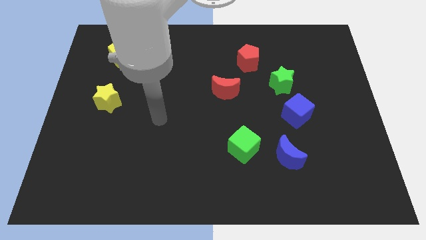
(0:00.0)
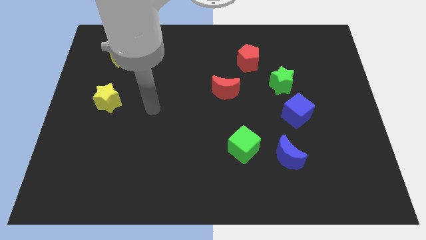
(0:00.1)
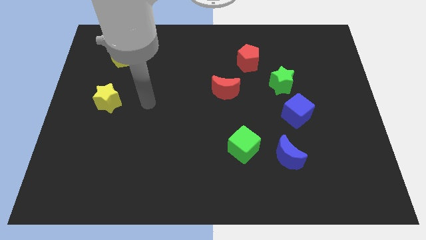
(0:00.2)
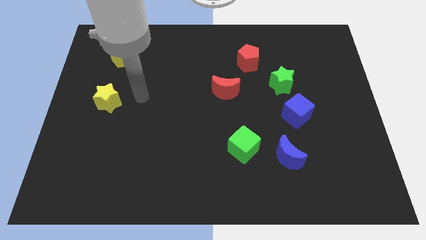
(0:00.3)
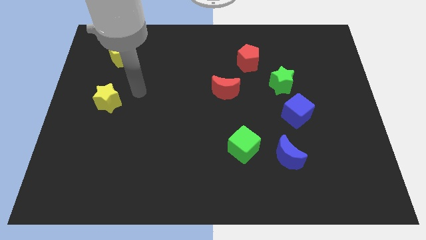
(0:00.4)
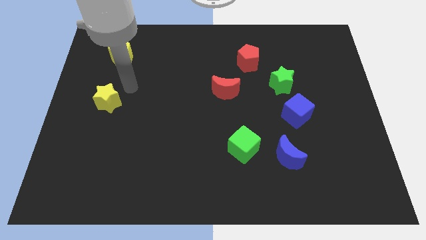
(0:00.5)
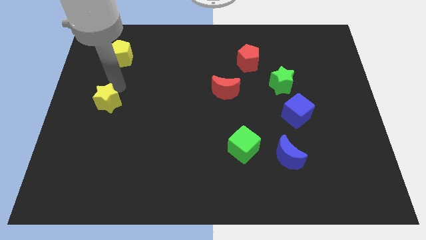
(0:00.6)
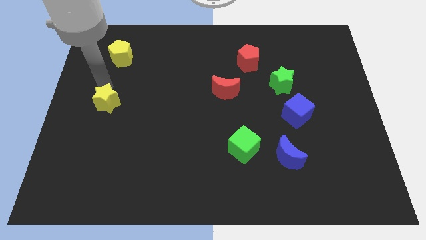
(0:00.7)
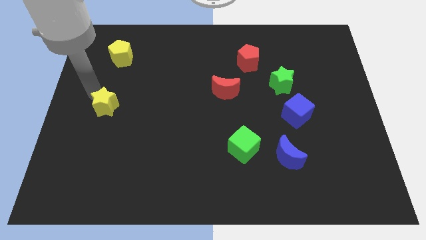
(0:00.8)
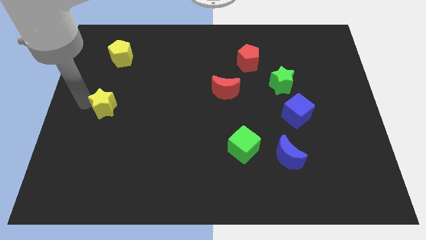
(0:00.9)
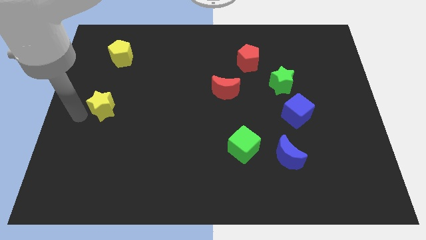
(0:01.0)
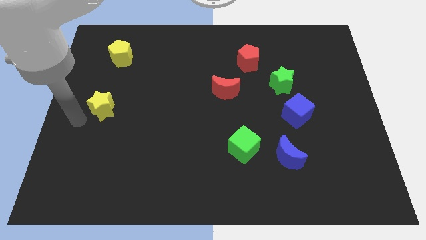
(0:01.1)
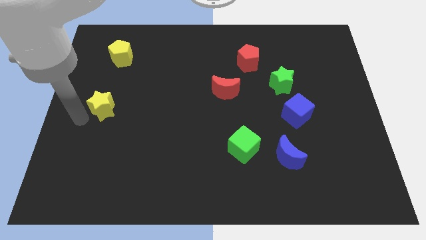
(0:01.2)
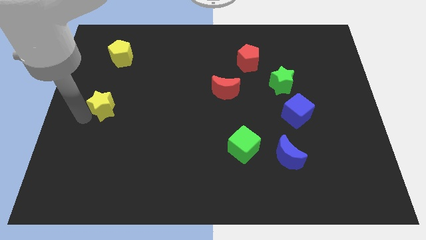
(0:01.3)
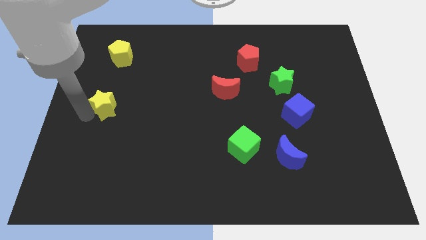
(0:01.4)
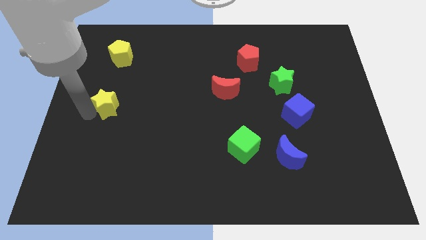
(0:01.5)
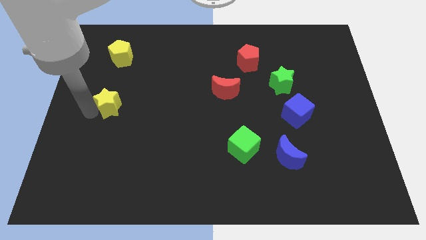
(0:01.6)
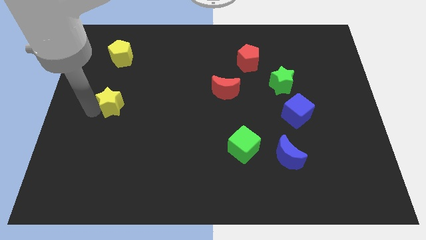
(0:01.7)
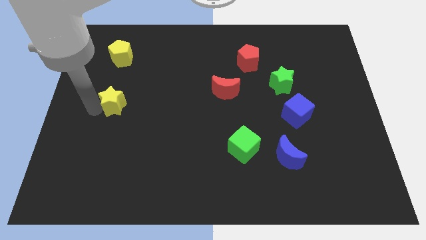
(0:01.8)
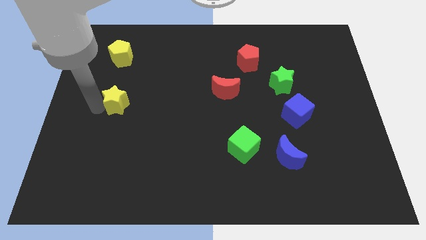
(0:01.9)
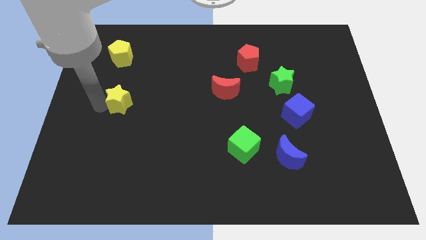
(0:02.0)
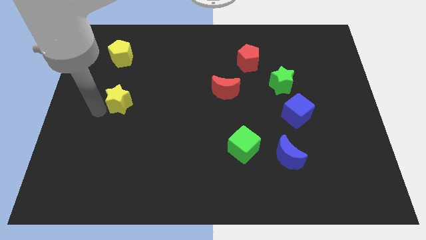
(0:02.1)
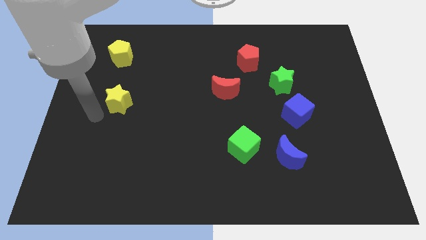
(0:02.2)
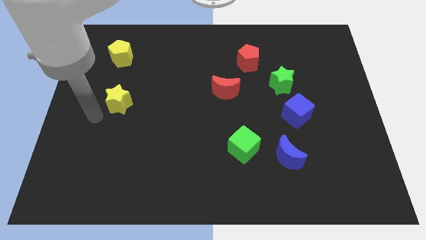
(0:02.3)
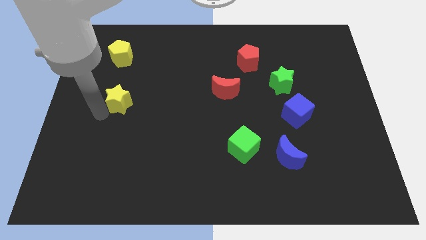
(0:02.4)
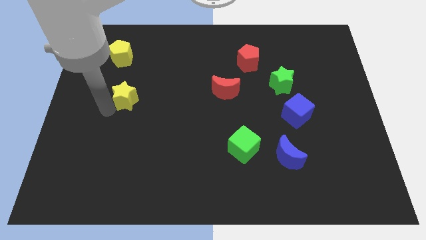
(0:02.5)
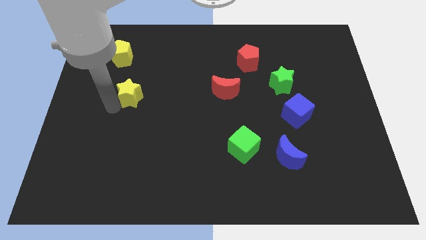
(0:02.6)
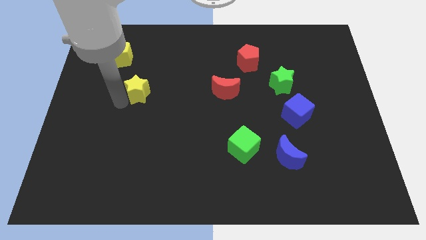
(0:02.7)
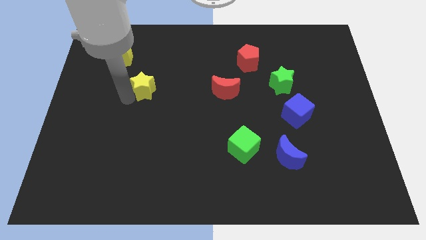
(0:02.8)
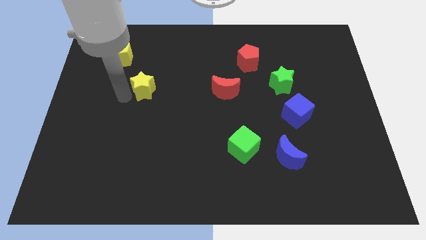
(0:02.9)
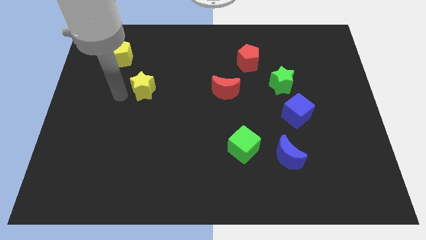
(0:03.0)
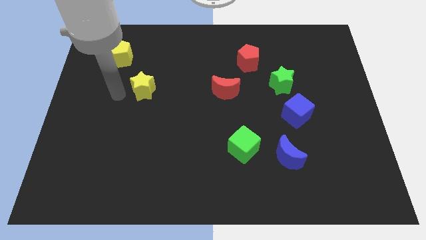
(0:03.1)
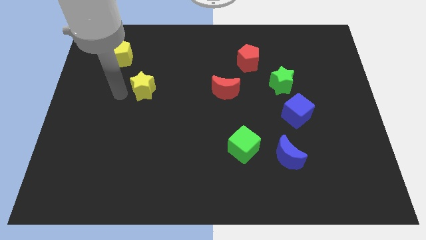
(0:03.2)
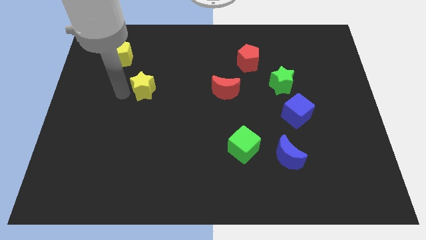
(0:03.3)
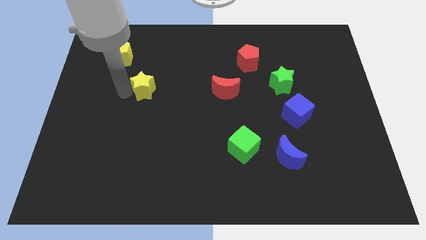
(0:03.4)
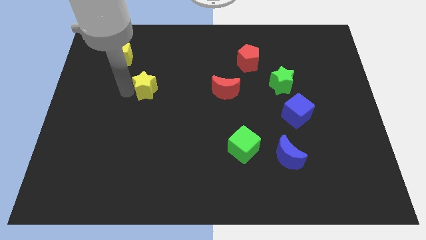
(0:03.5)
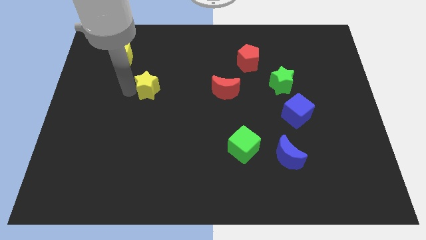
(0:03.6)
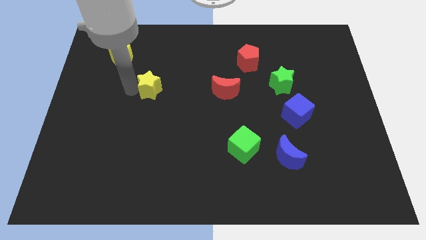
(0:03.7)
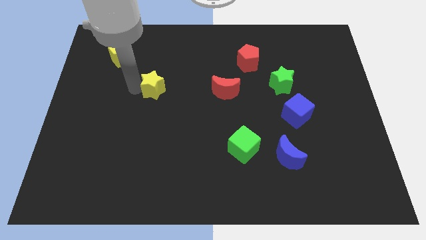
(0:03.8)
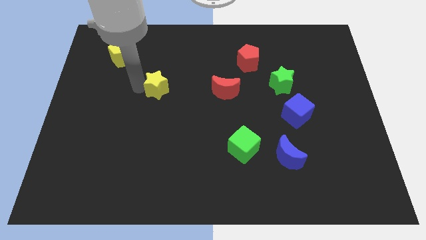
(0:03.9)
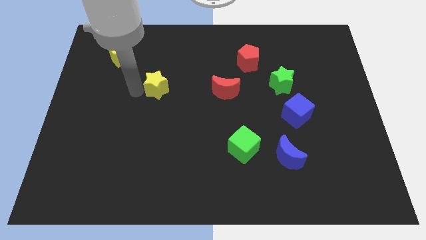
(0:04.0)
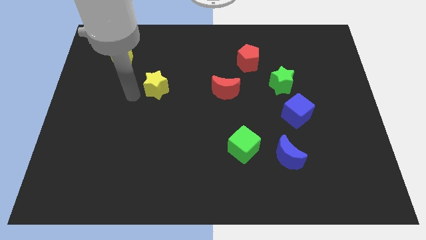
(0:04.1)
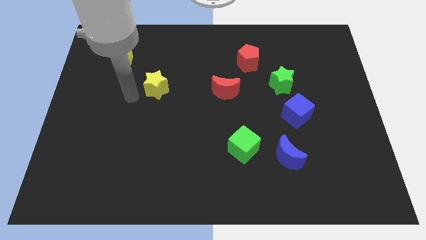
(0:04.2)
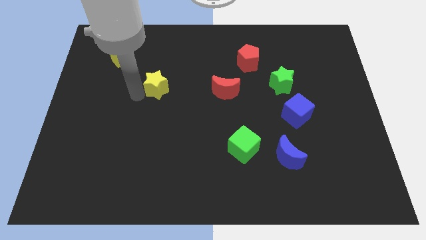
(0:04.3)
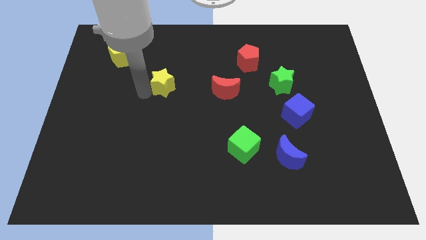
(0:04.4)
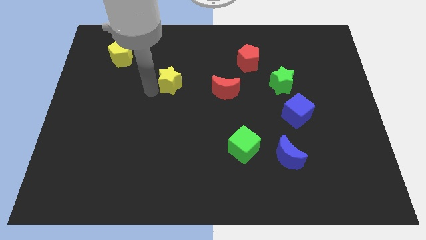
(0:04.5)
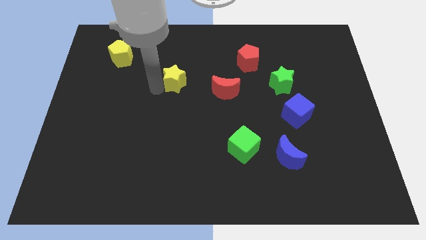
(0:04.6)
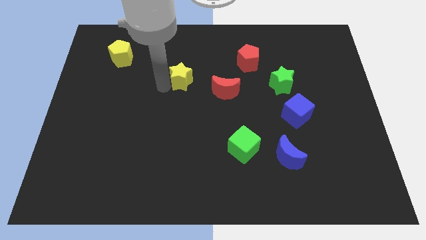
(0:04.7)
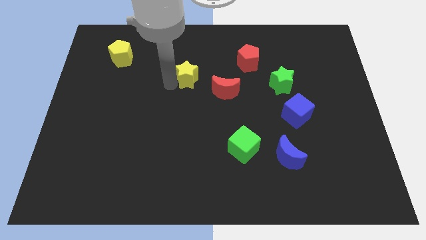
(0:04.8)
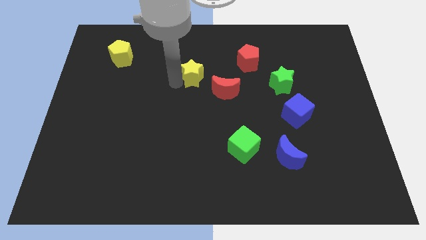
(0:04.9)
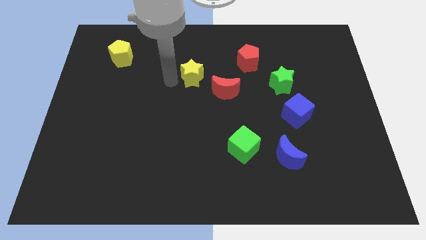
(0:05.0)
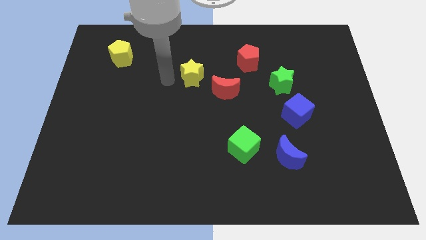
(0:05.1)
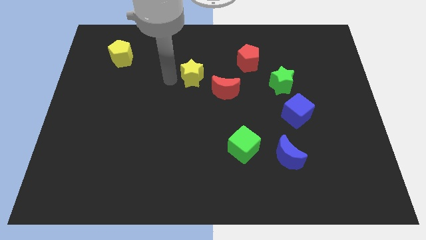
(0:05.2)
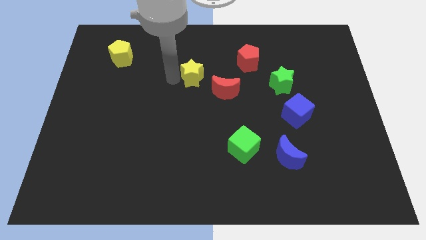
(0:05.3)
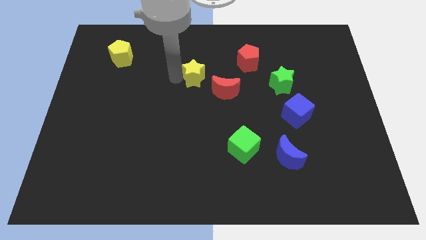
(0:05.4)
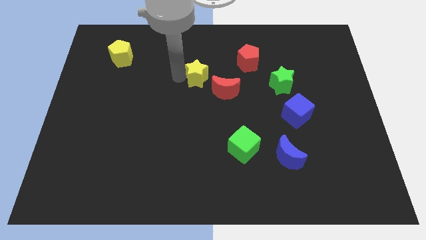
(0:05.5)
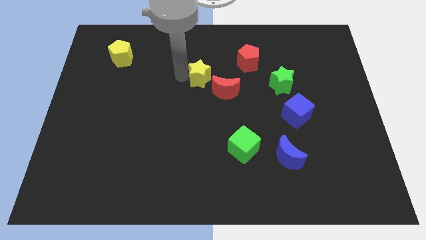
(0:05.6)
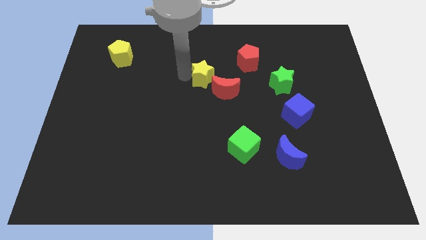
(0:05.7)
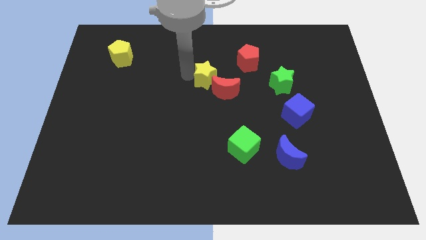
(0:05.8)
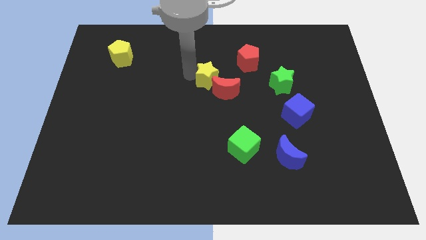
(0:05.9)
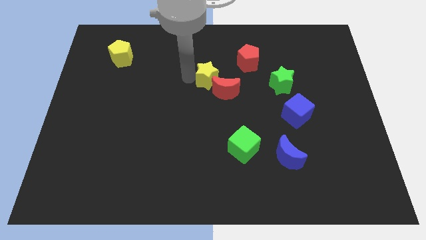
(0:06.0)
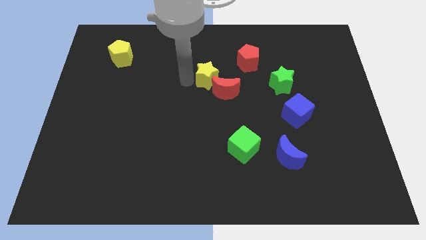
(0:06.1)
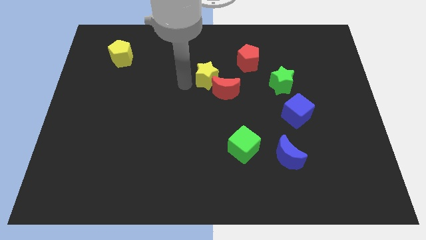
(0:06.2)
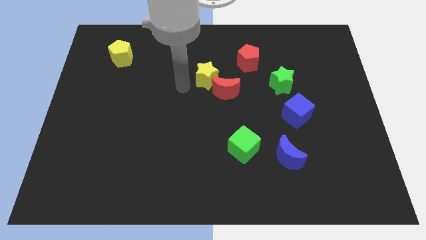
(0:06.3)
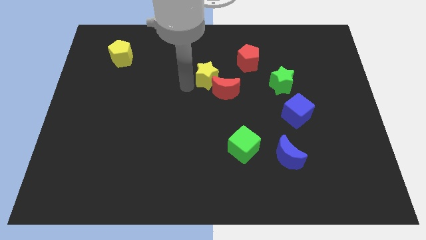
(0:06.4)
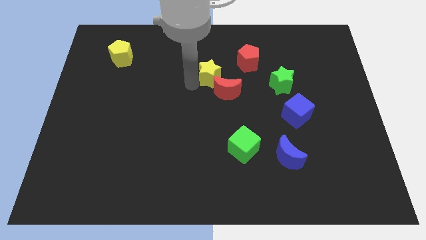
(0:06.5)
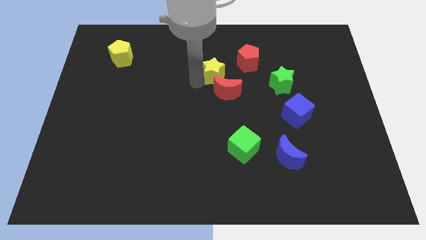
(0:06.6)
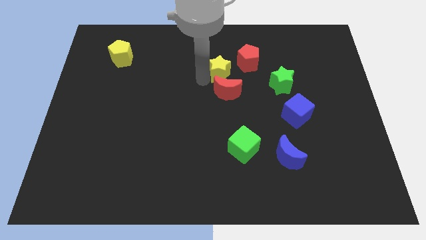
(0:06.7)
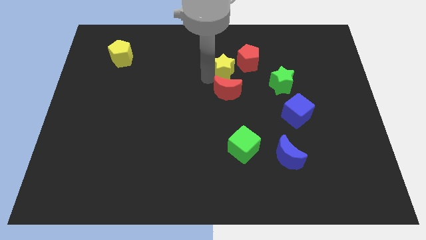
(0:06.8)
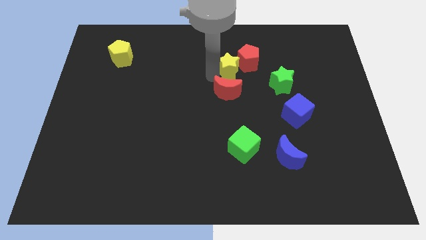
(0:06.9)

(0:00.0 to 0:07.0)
slide the yellow star to the red pentagon
